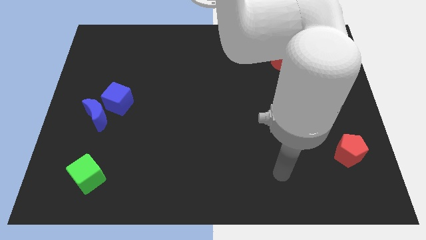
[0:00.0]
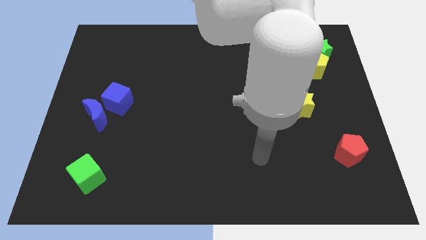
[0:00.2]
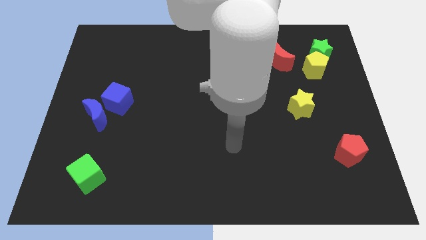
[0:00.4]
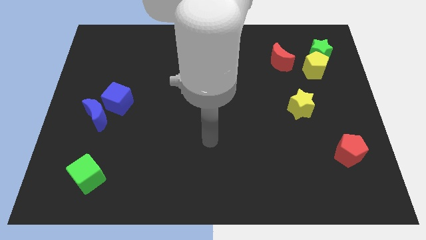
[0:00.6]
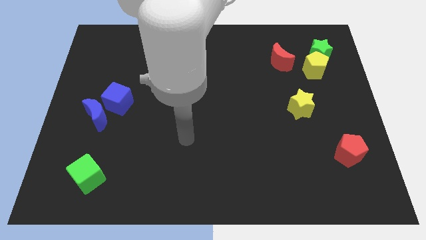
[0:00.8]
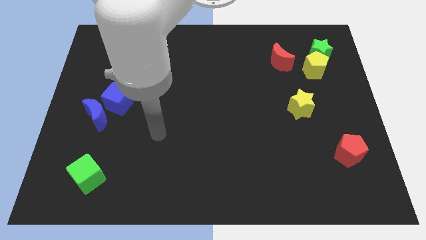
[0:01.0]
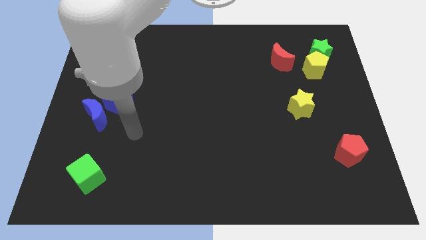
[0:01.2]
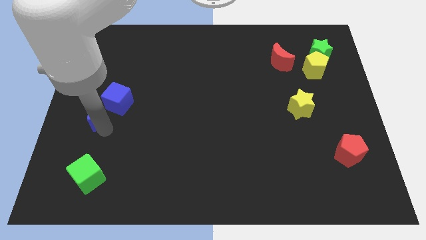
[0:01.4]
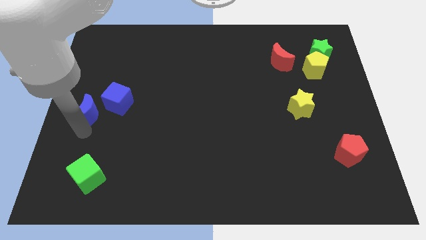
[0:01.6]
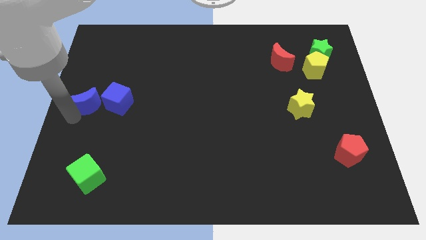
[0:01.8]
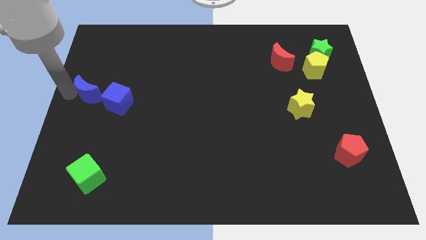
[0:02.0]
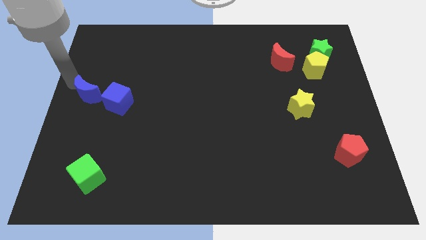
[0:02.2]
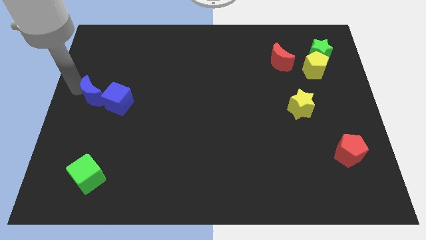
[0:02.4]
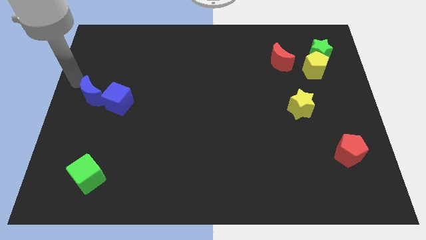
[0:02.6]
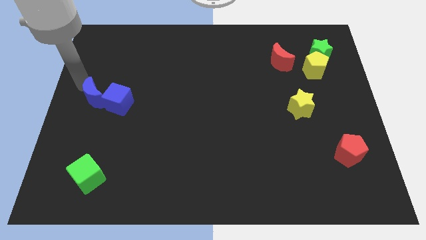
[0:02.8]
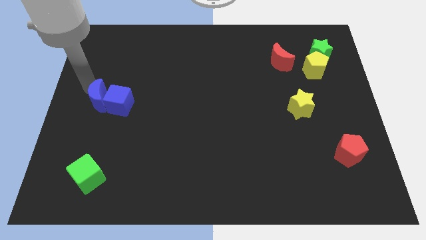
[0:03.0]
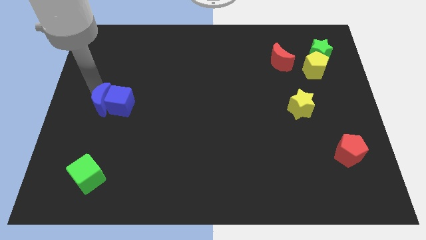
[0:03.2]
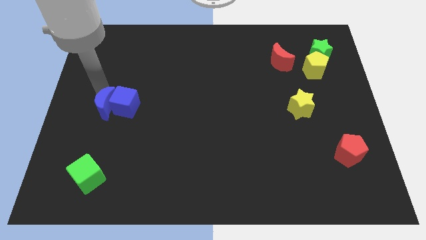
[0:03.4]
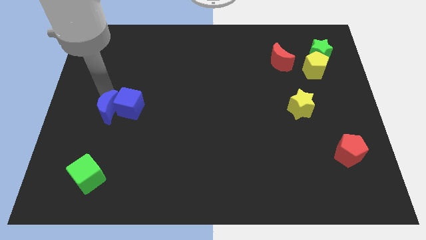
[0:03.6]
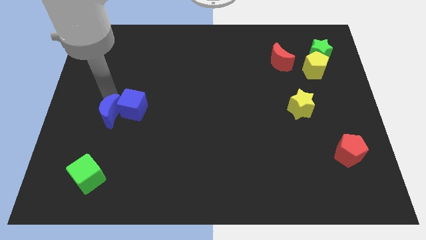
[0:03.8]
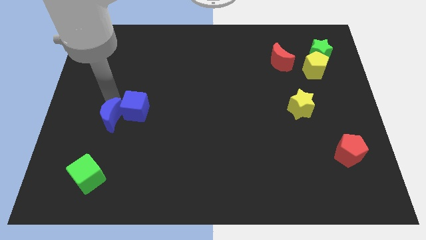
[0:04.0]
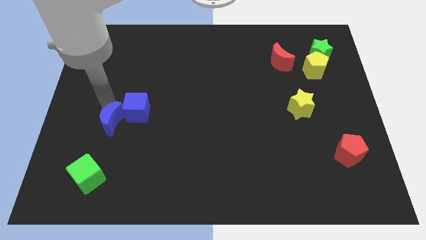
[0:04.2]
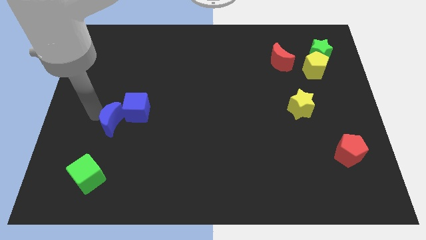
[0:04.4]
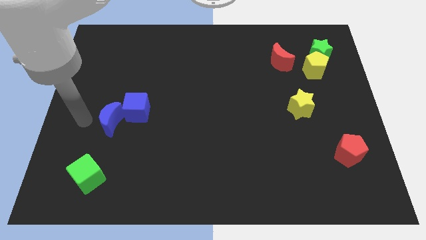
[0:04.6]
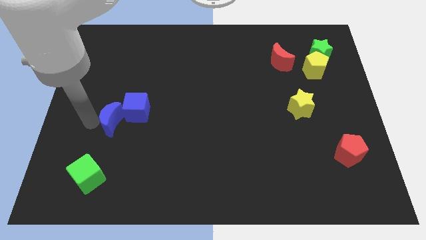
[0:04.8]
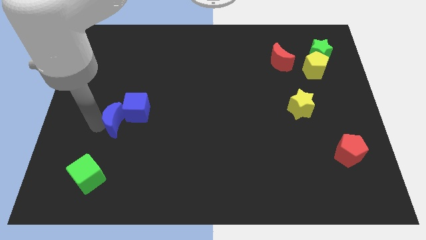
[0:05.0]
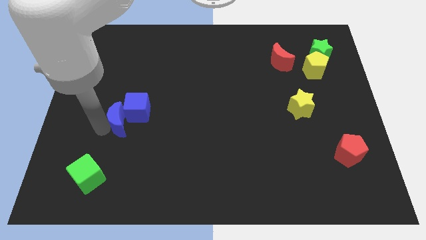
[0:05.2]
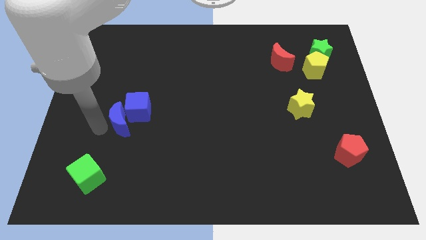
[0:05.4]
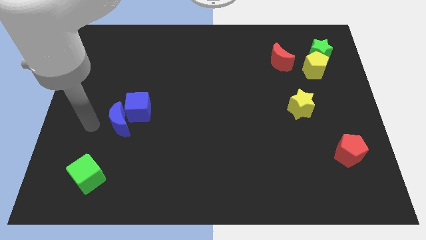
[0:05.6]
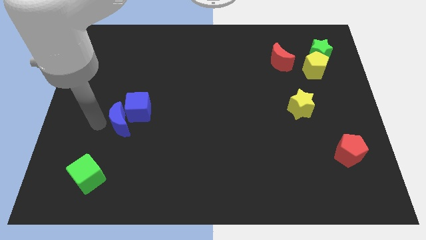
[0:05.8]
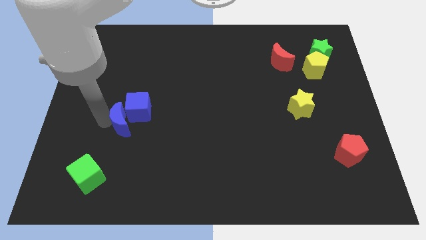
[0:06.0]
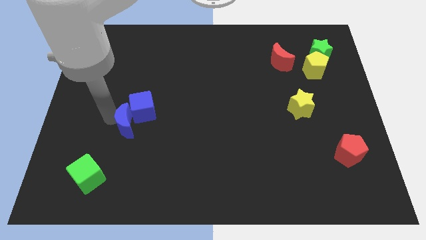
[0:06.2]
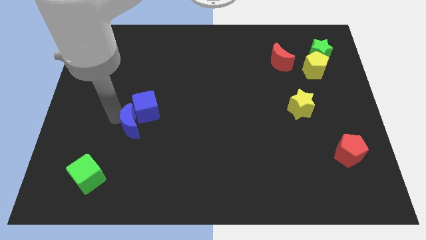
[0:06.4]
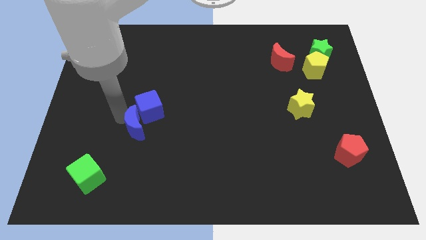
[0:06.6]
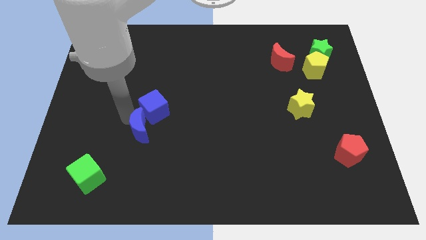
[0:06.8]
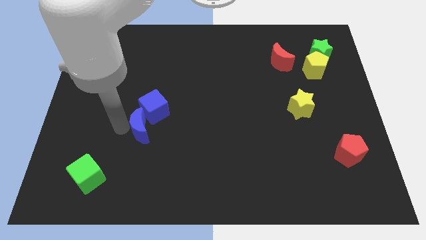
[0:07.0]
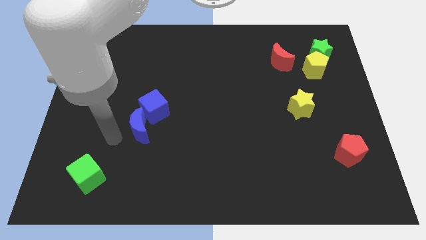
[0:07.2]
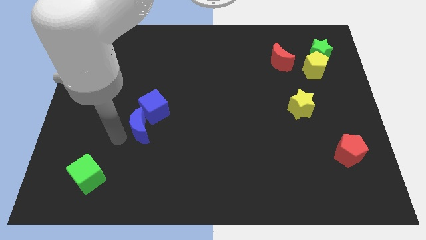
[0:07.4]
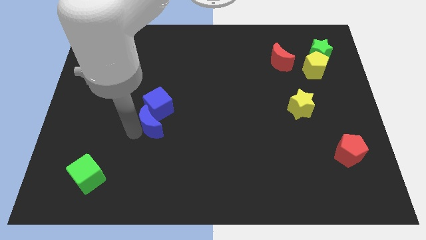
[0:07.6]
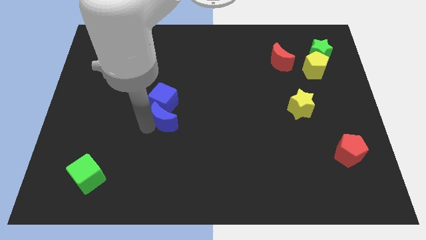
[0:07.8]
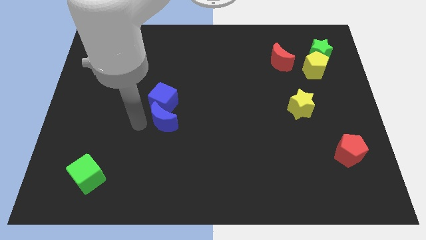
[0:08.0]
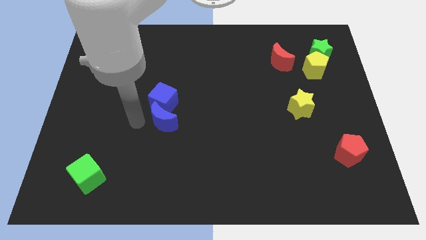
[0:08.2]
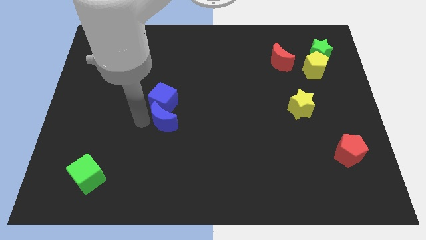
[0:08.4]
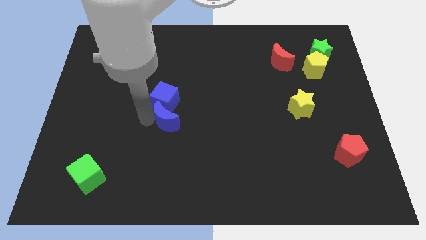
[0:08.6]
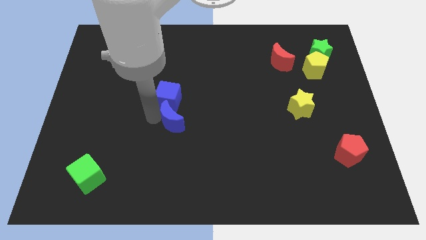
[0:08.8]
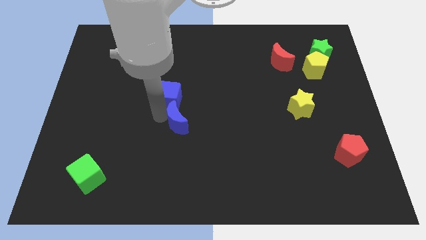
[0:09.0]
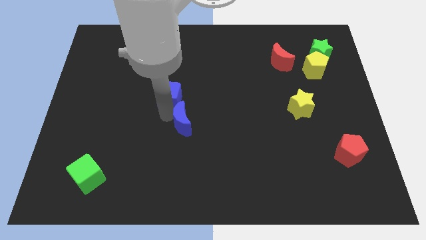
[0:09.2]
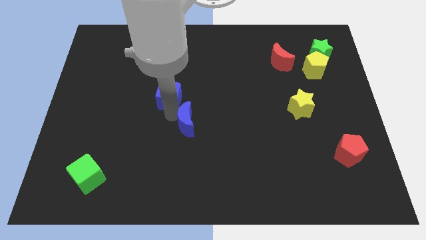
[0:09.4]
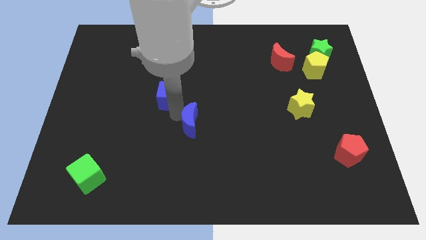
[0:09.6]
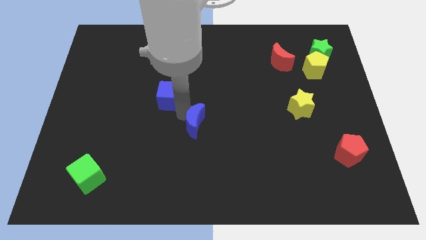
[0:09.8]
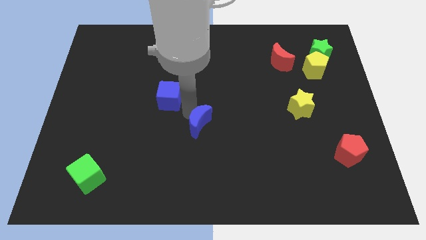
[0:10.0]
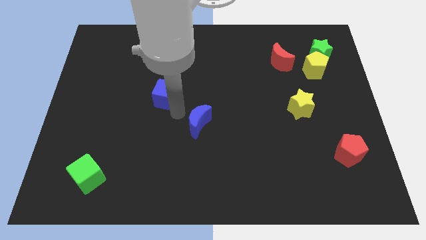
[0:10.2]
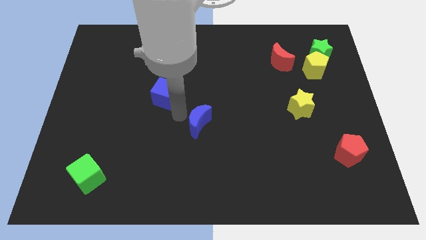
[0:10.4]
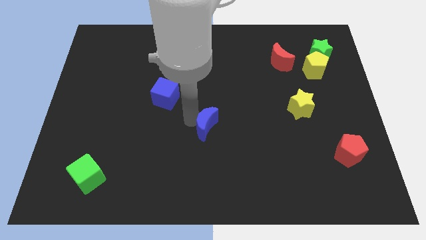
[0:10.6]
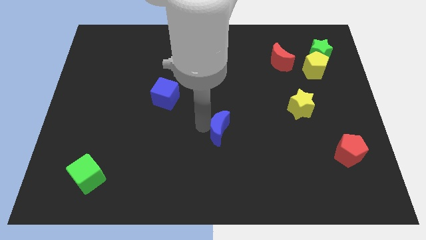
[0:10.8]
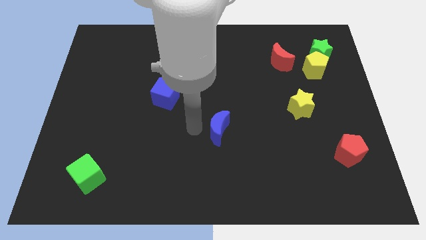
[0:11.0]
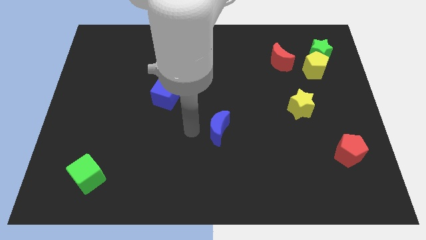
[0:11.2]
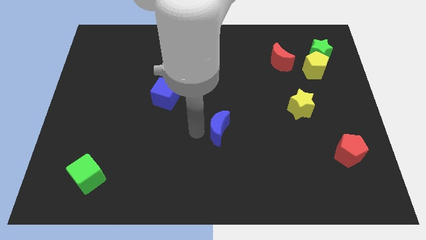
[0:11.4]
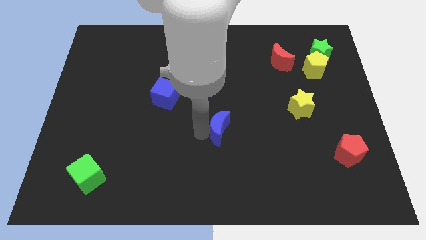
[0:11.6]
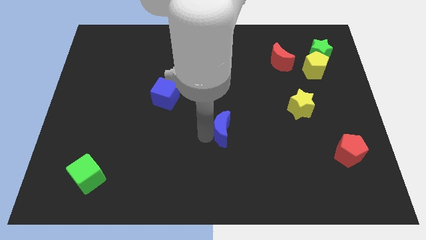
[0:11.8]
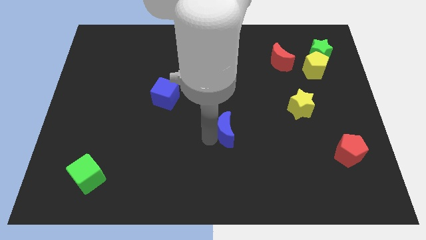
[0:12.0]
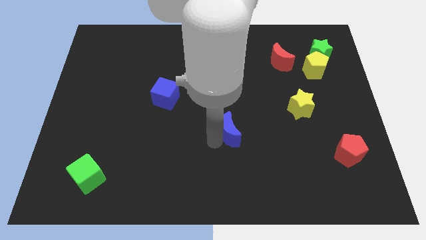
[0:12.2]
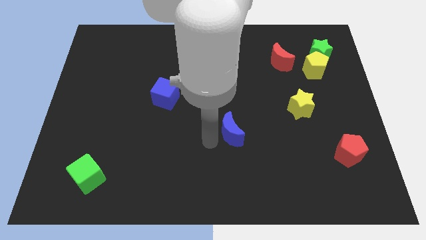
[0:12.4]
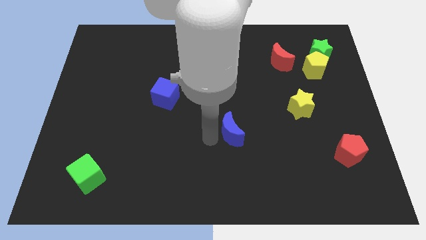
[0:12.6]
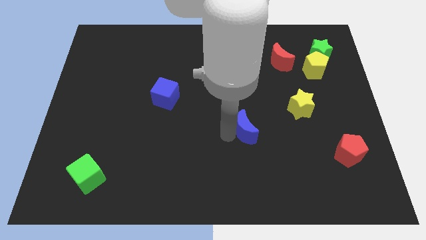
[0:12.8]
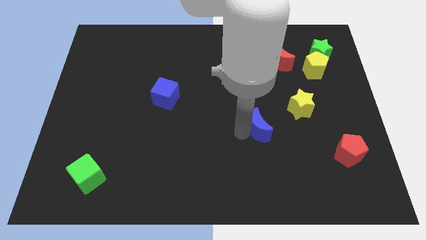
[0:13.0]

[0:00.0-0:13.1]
slide the blue moon to the bottom left of the yellow star

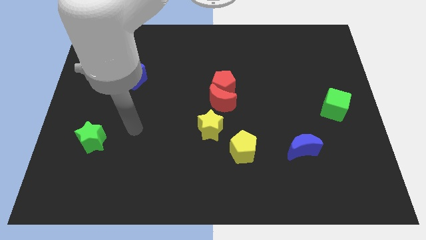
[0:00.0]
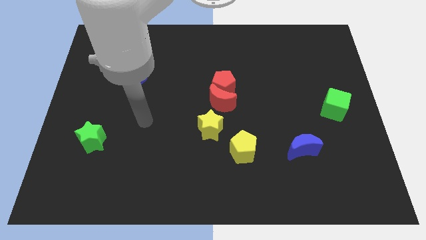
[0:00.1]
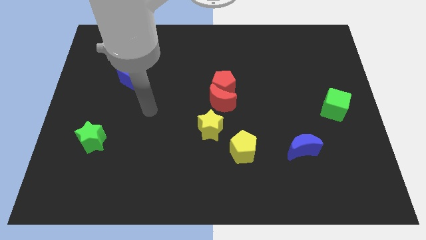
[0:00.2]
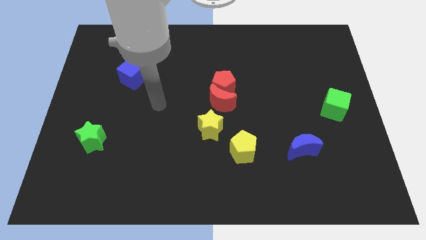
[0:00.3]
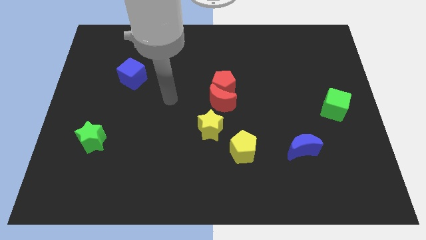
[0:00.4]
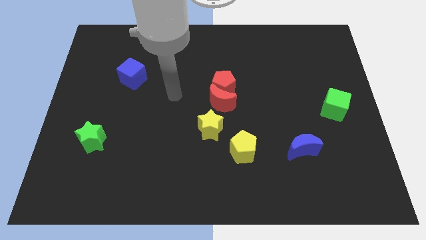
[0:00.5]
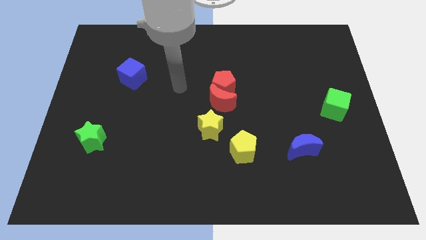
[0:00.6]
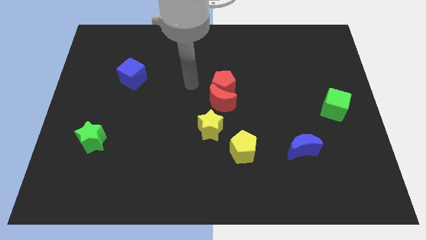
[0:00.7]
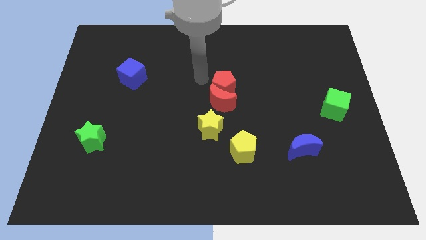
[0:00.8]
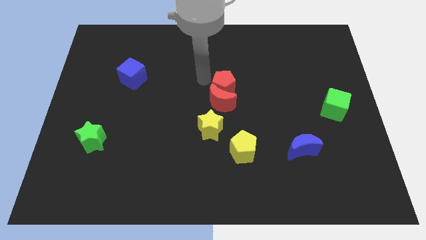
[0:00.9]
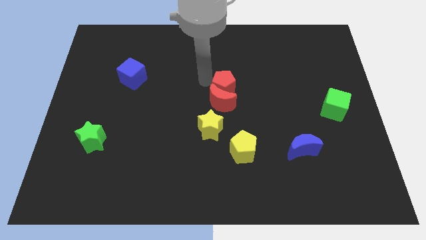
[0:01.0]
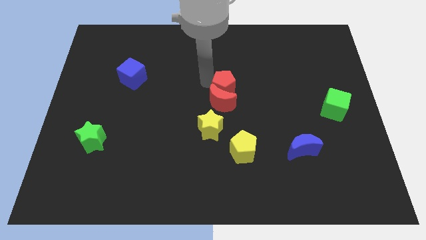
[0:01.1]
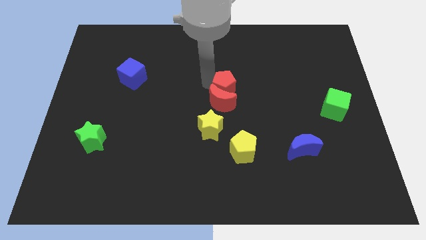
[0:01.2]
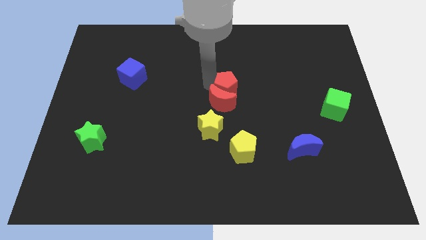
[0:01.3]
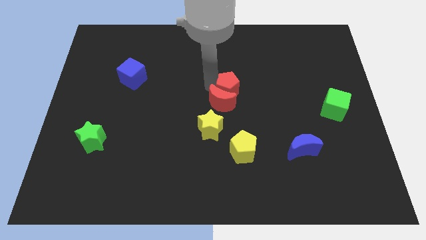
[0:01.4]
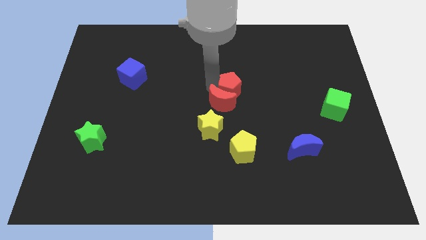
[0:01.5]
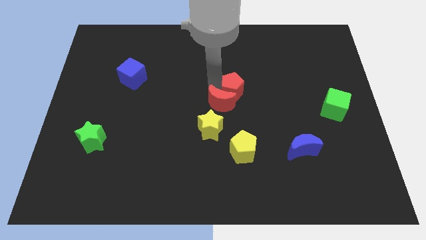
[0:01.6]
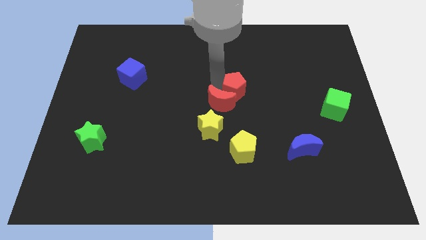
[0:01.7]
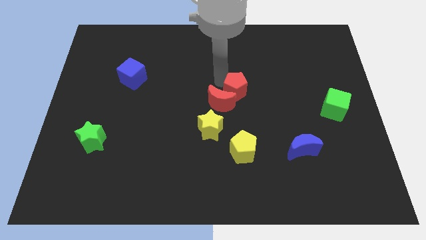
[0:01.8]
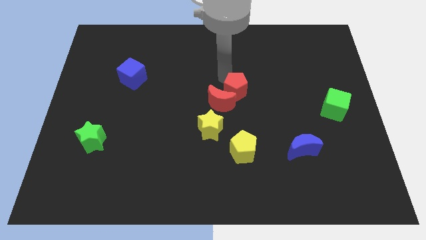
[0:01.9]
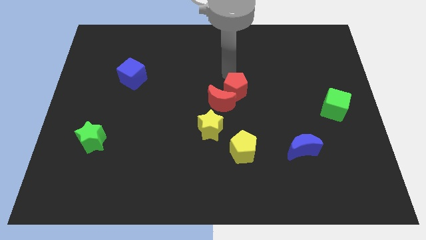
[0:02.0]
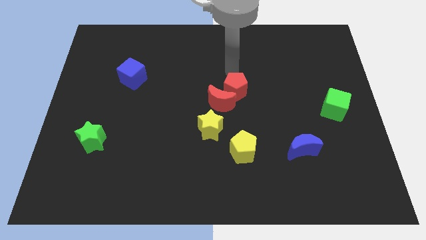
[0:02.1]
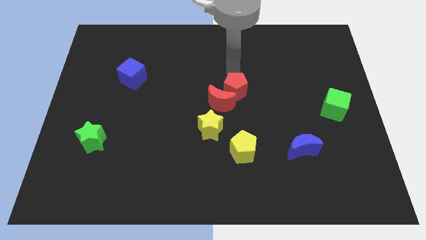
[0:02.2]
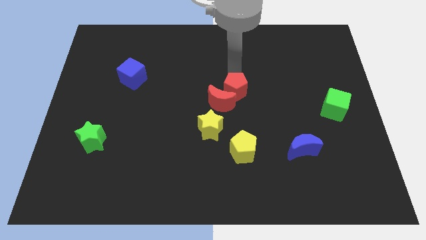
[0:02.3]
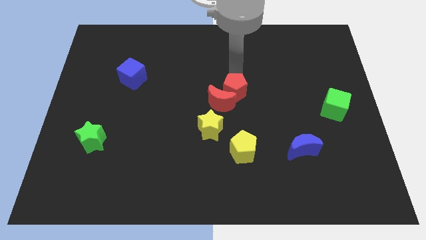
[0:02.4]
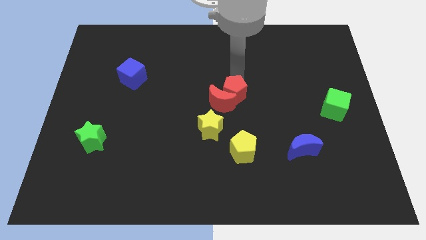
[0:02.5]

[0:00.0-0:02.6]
push the red pentagon to the top side of the yellow pentagon
